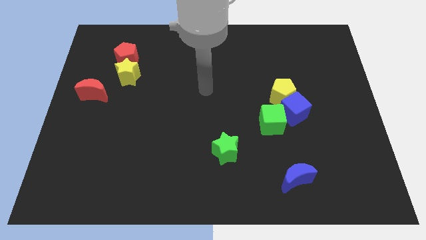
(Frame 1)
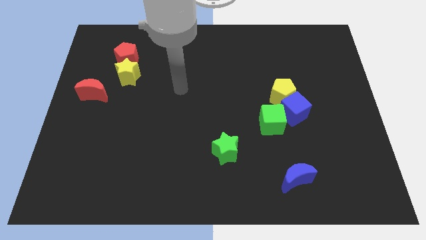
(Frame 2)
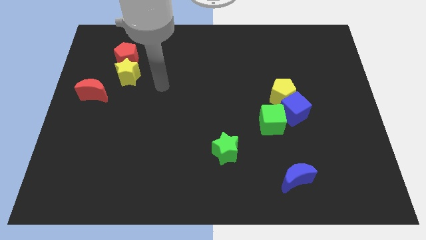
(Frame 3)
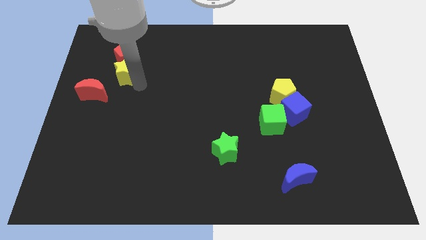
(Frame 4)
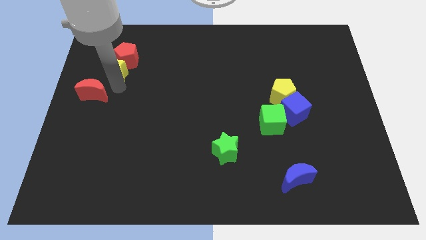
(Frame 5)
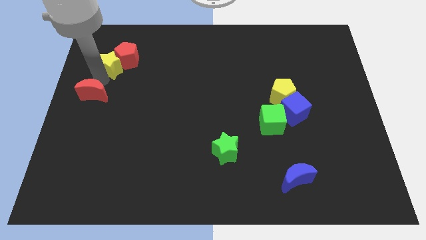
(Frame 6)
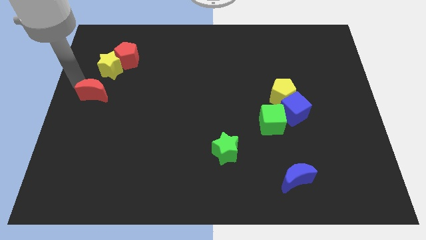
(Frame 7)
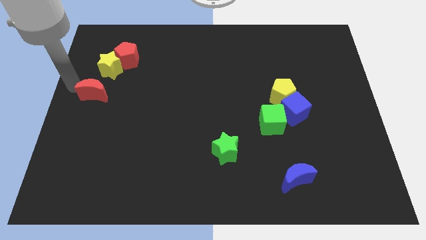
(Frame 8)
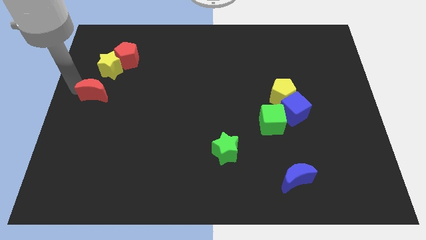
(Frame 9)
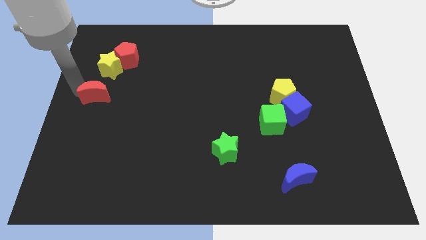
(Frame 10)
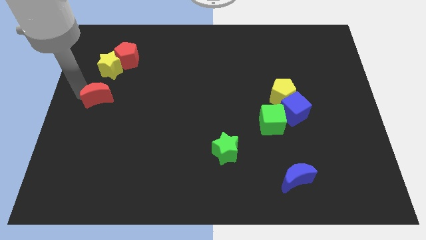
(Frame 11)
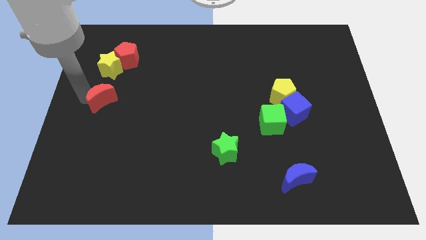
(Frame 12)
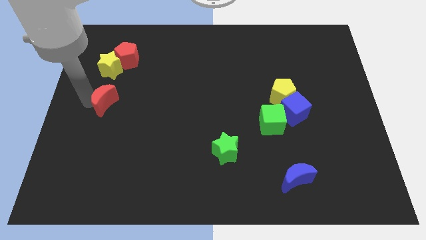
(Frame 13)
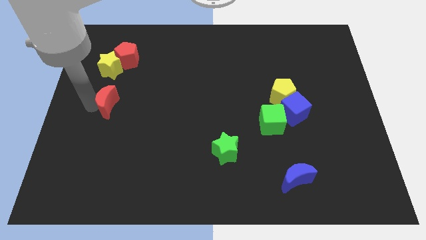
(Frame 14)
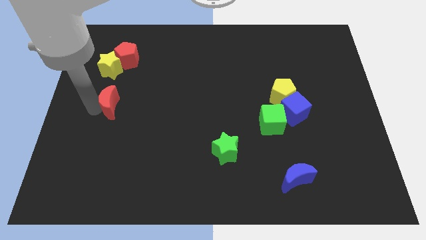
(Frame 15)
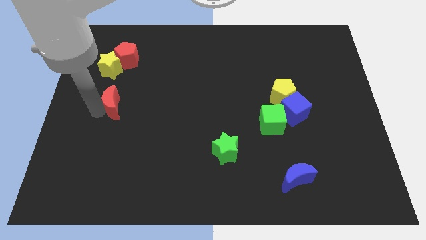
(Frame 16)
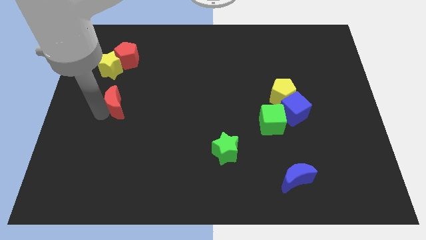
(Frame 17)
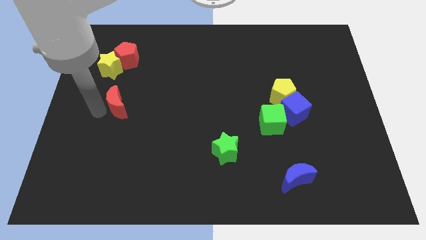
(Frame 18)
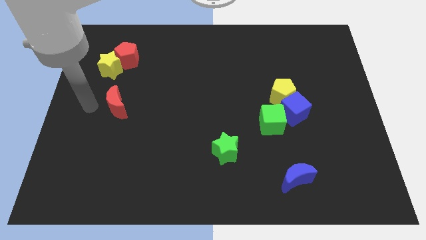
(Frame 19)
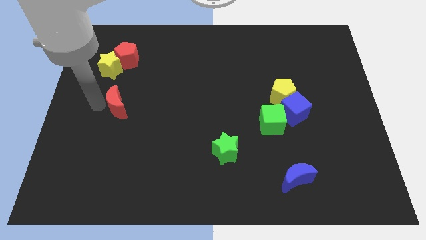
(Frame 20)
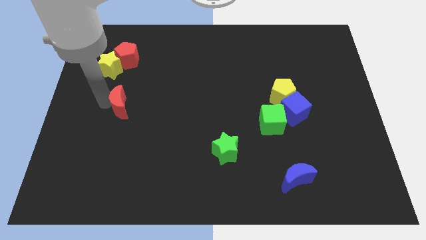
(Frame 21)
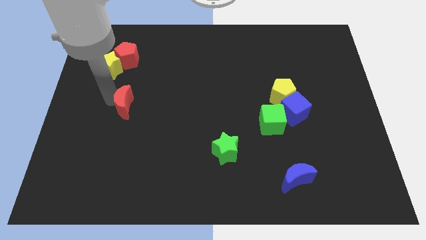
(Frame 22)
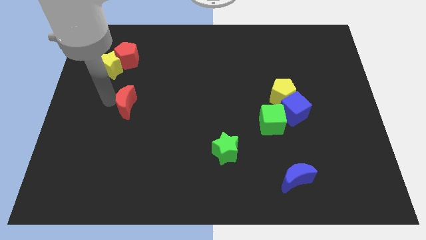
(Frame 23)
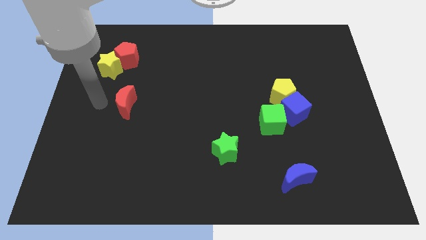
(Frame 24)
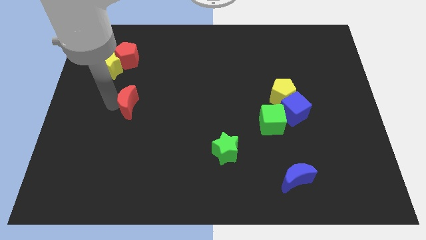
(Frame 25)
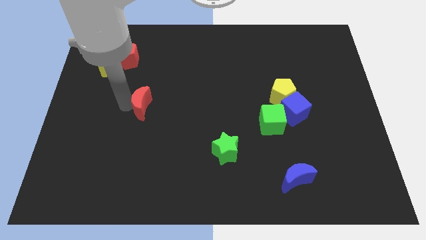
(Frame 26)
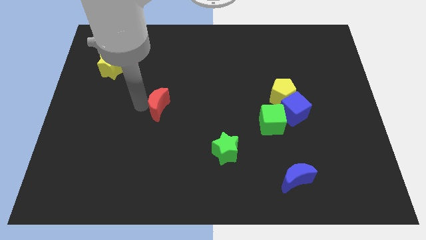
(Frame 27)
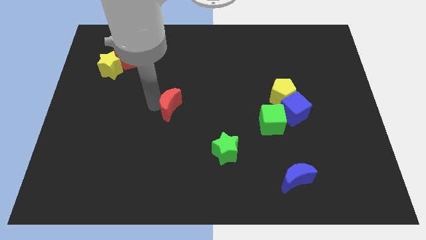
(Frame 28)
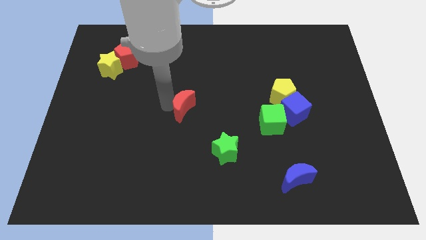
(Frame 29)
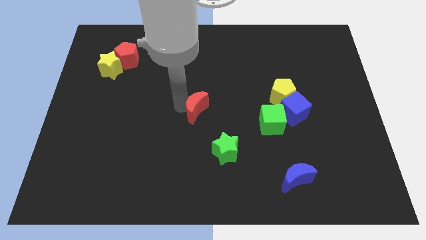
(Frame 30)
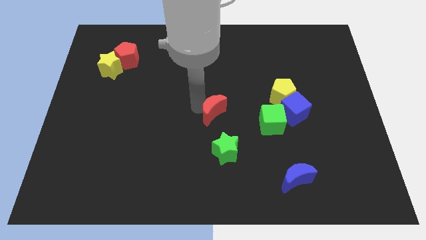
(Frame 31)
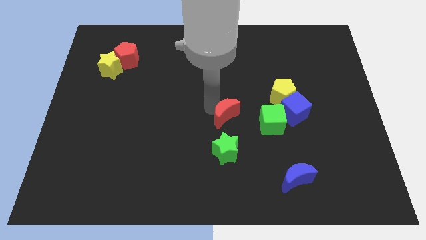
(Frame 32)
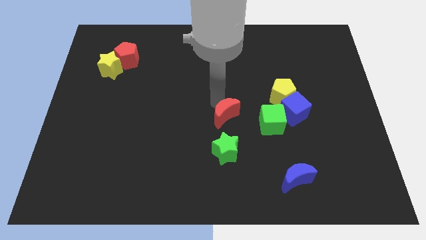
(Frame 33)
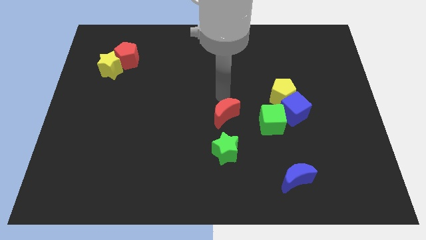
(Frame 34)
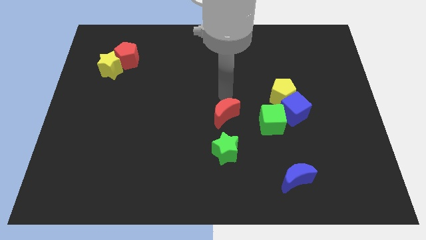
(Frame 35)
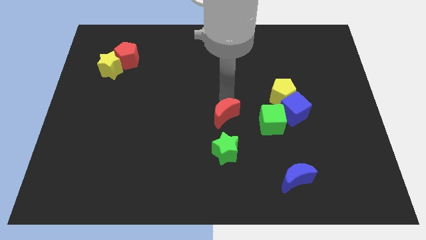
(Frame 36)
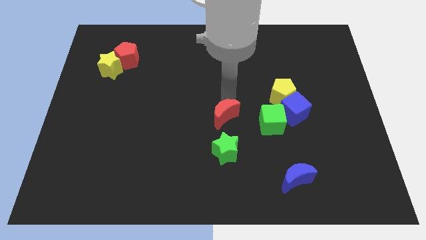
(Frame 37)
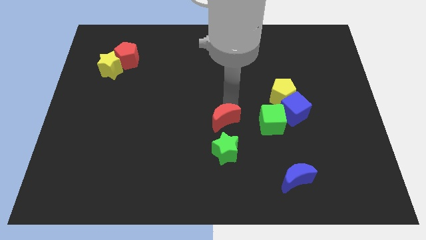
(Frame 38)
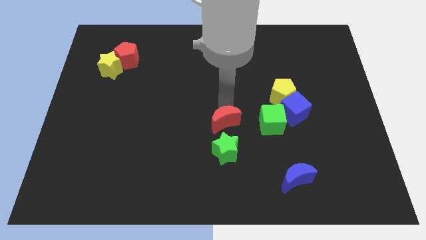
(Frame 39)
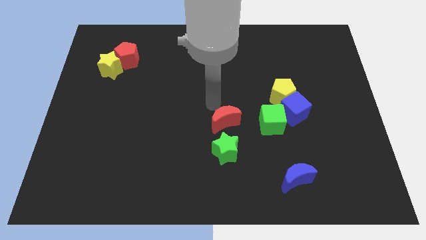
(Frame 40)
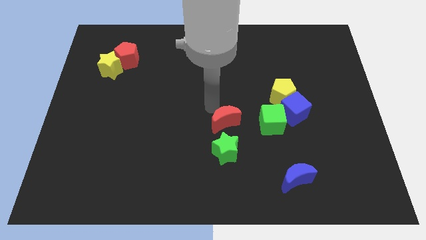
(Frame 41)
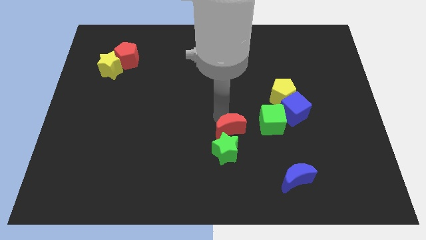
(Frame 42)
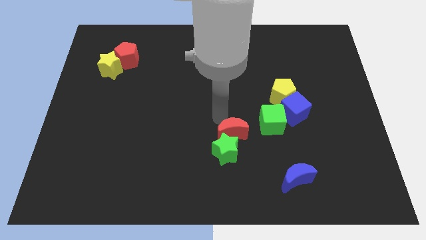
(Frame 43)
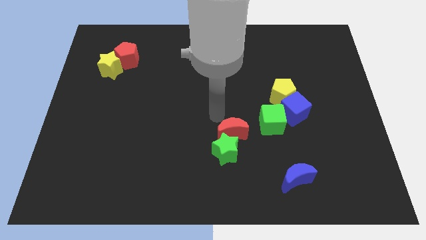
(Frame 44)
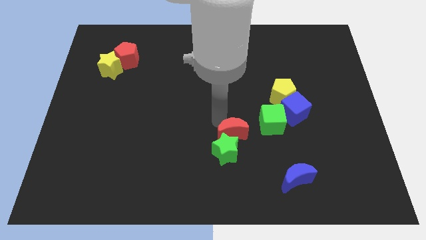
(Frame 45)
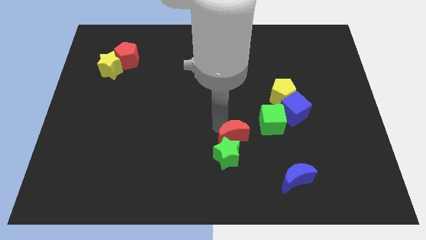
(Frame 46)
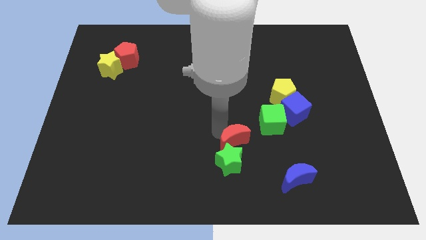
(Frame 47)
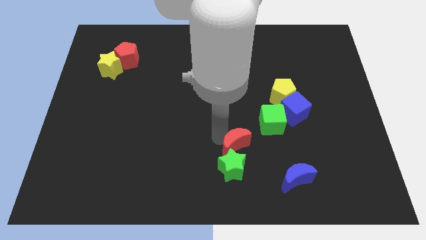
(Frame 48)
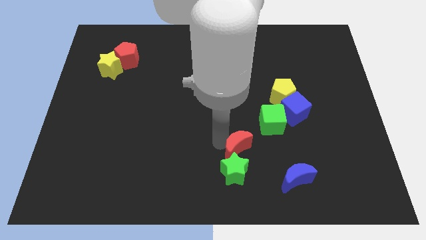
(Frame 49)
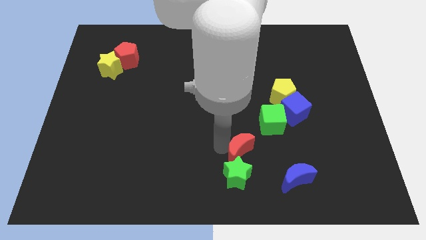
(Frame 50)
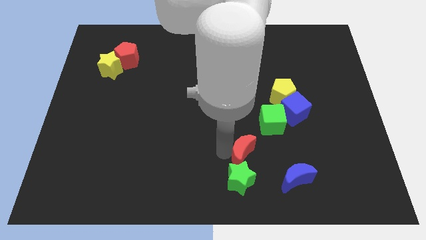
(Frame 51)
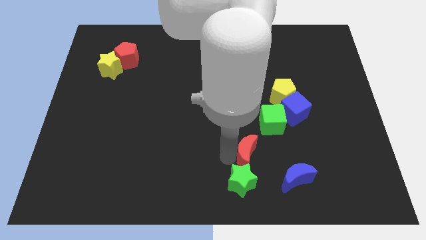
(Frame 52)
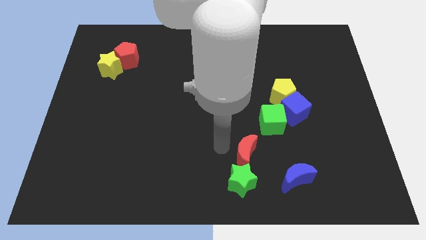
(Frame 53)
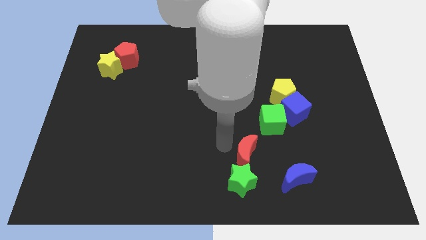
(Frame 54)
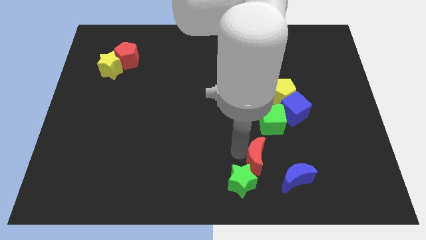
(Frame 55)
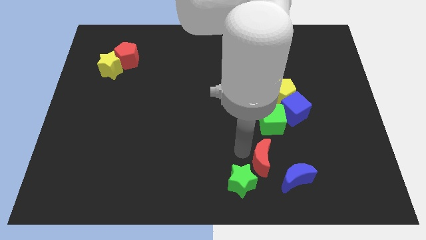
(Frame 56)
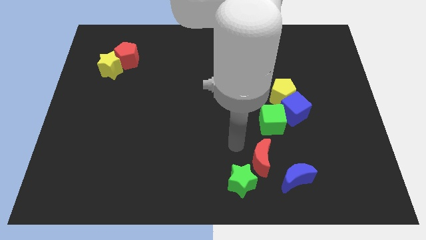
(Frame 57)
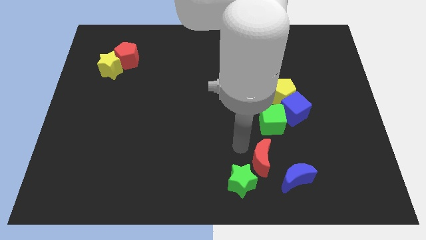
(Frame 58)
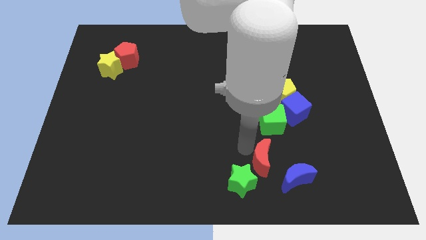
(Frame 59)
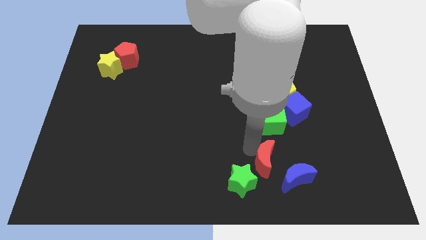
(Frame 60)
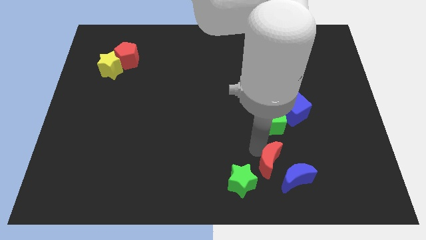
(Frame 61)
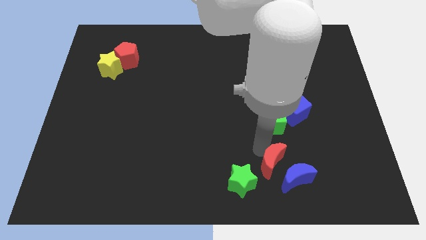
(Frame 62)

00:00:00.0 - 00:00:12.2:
push the red moon towards the blue moon
